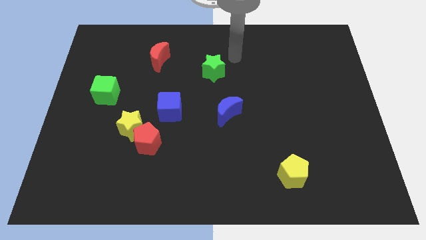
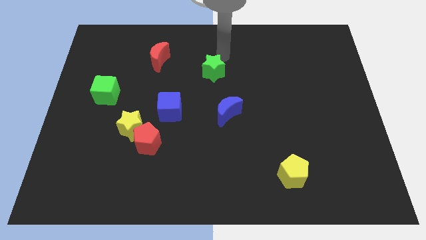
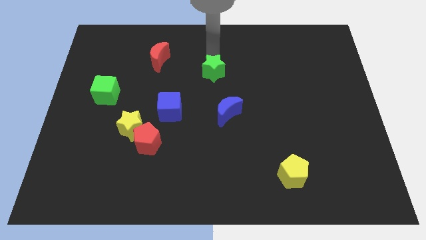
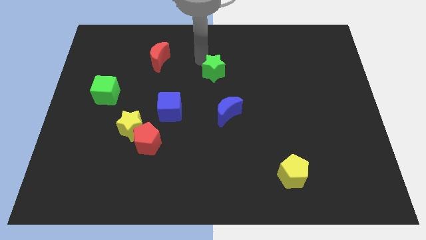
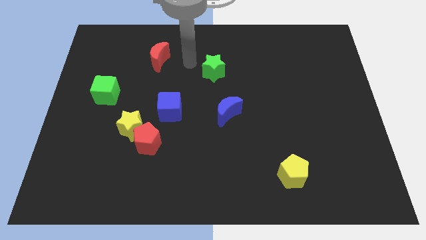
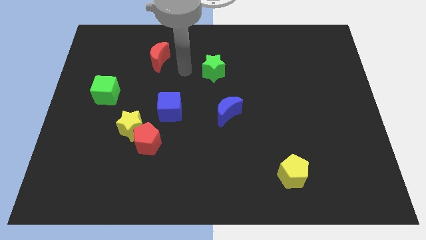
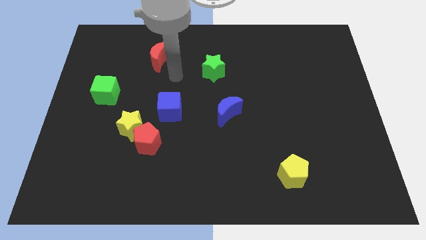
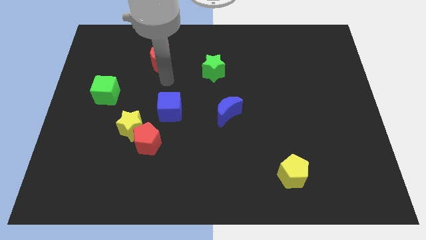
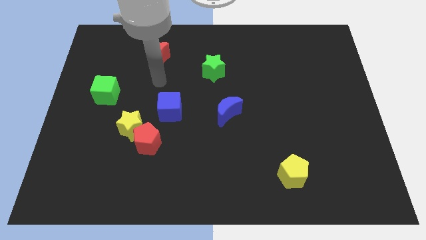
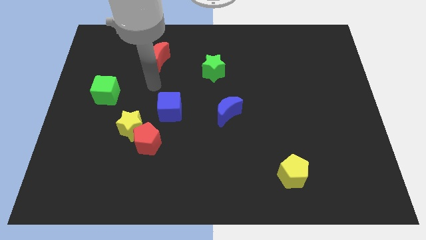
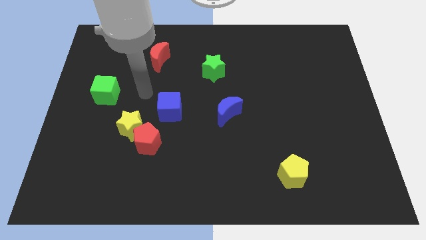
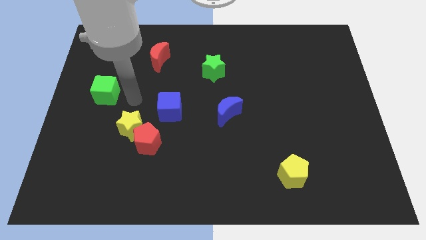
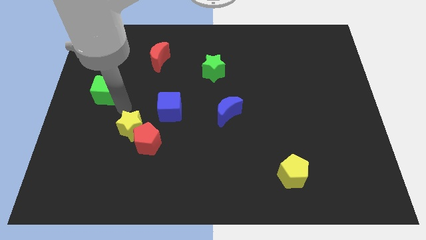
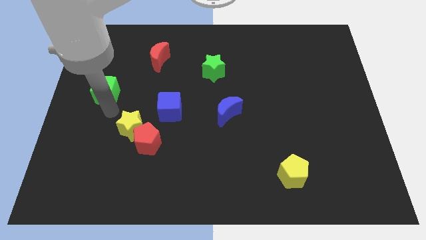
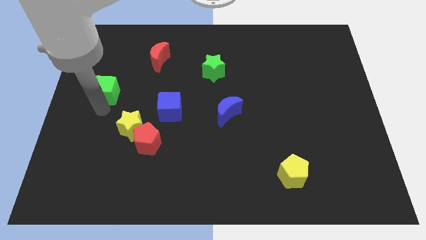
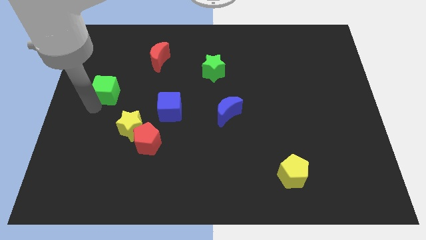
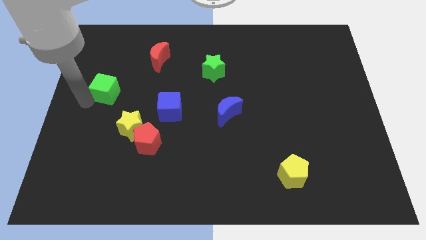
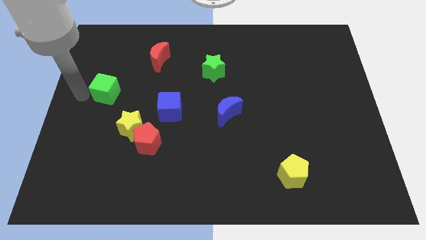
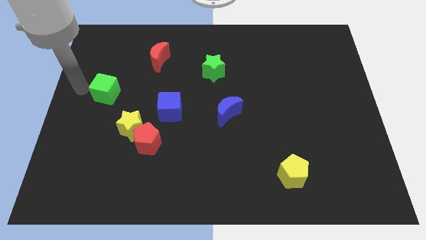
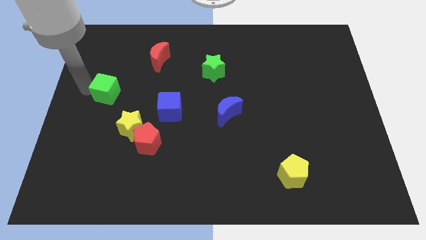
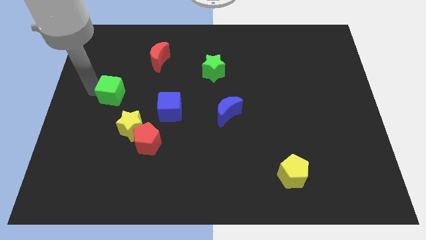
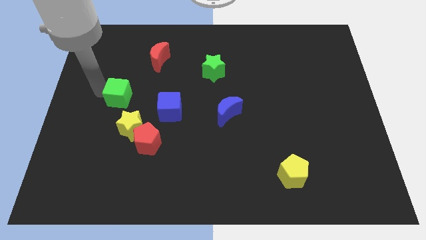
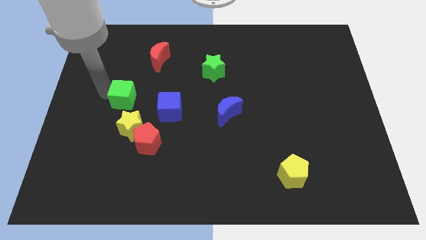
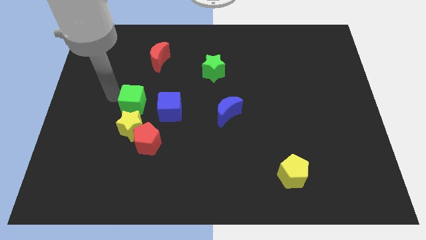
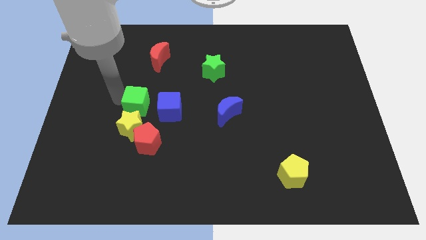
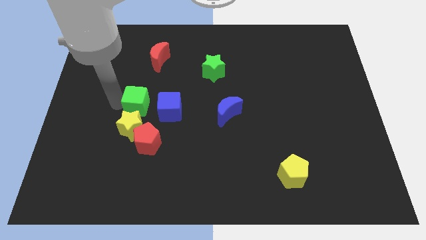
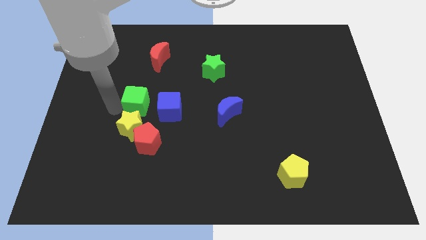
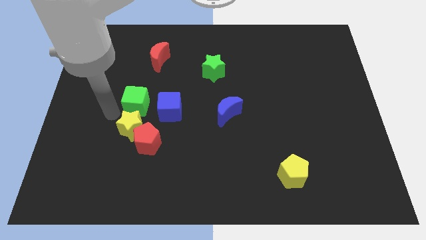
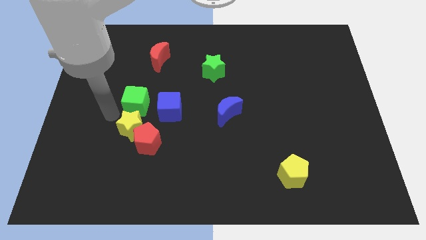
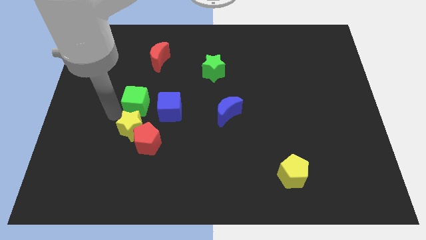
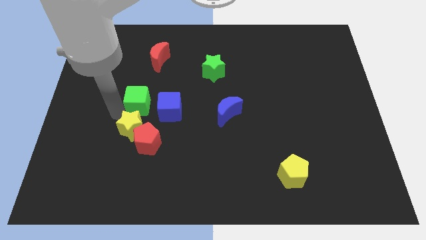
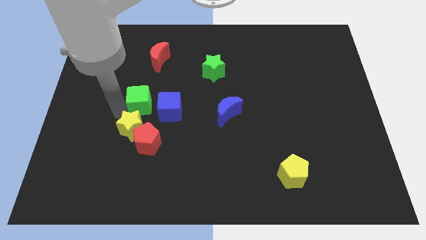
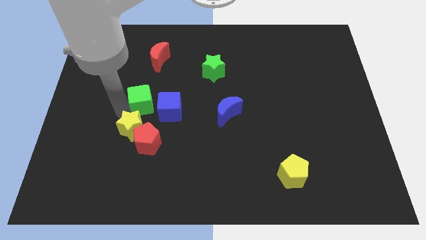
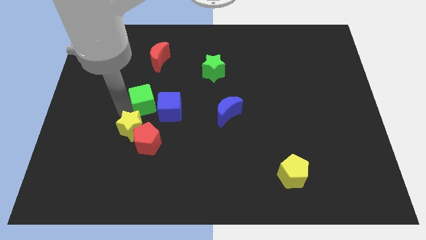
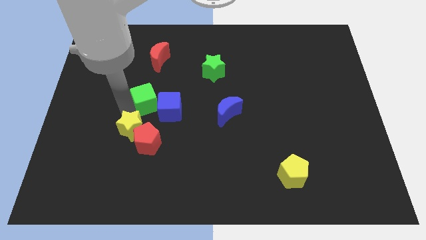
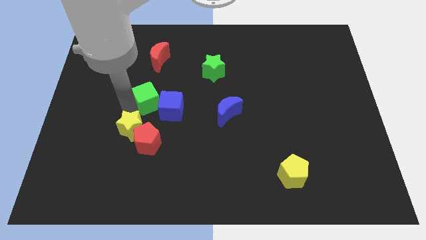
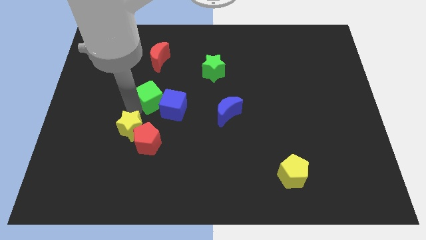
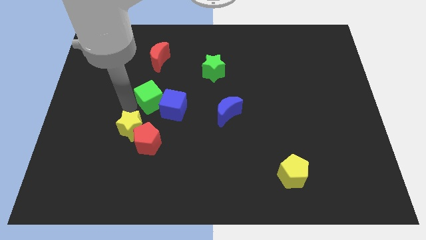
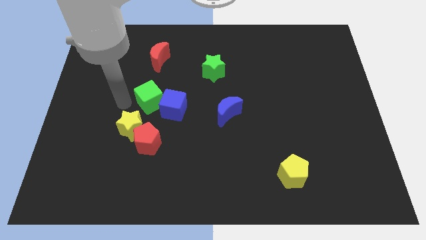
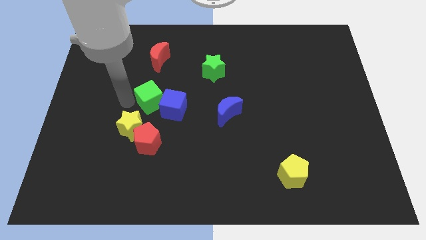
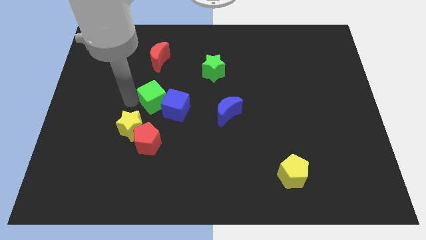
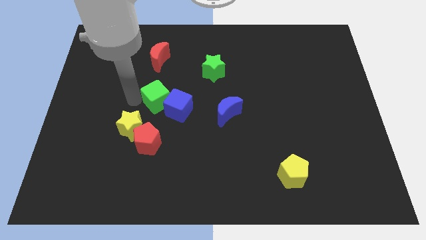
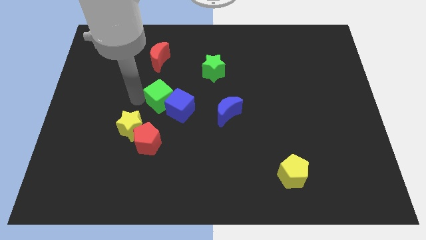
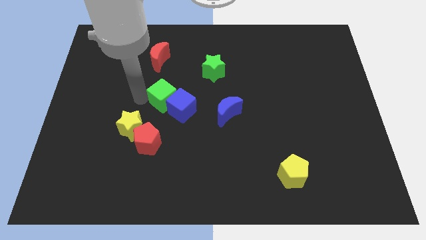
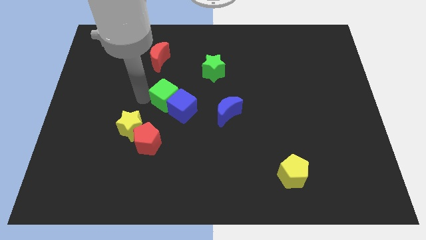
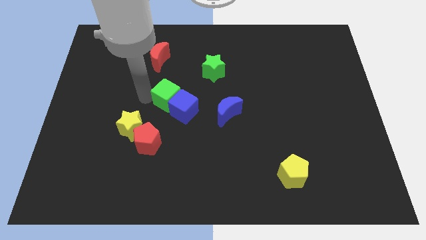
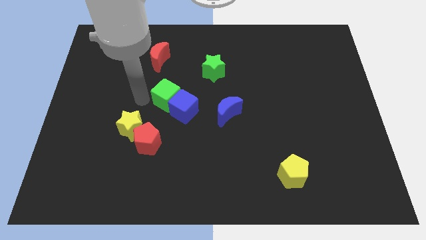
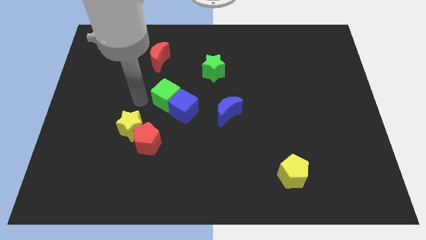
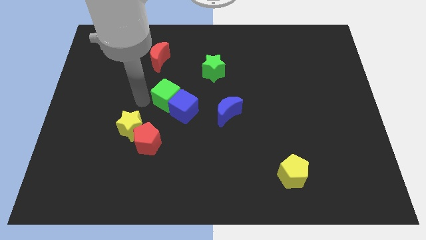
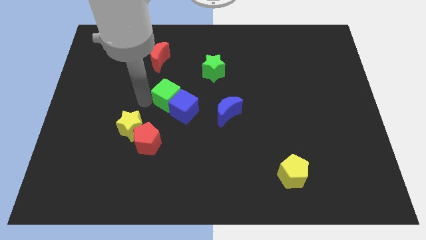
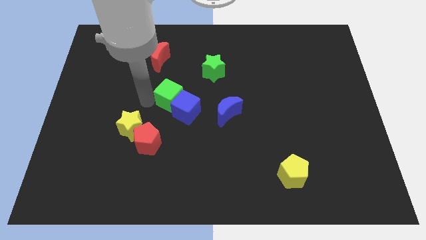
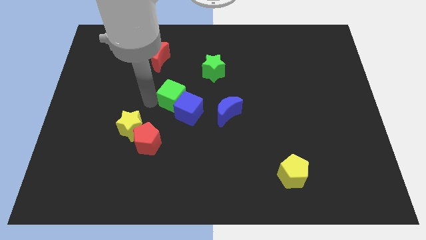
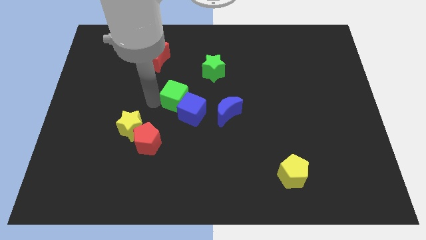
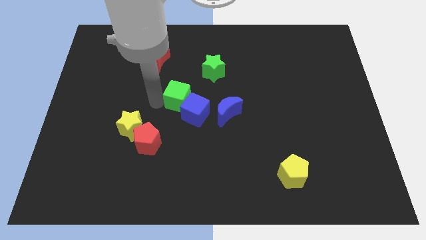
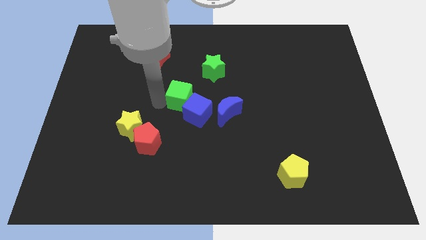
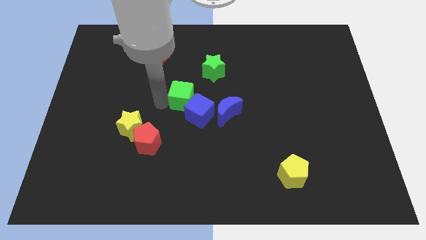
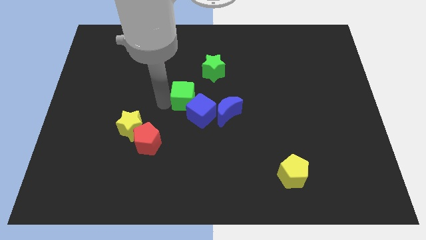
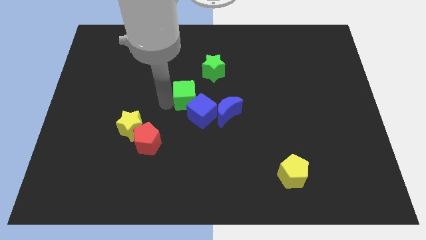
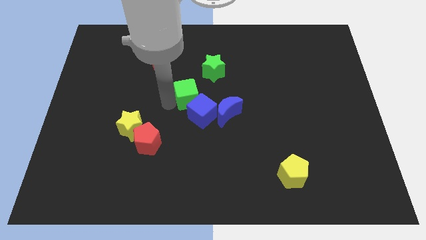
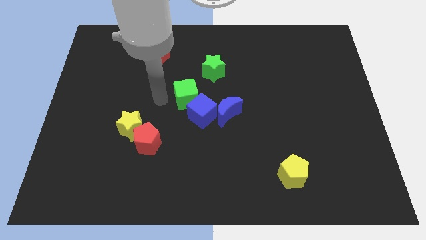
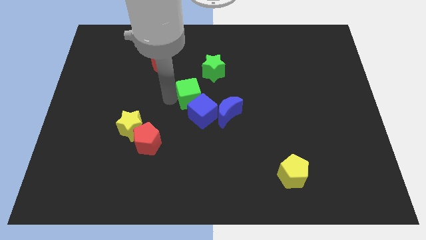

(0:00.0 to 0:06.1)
move the green cube to the right

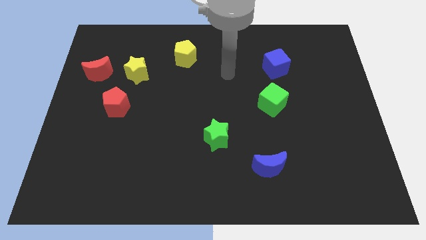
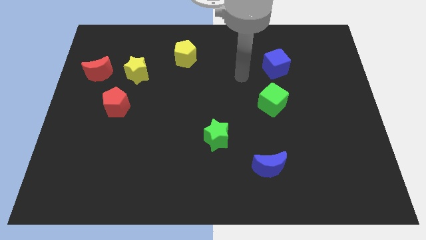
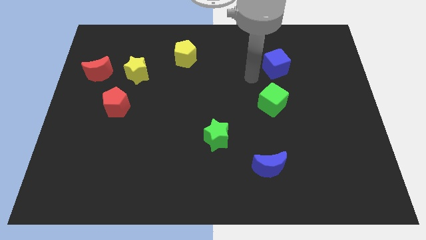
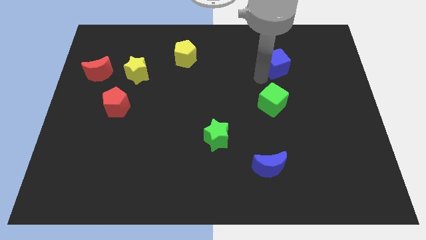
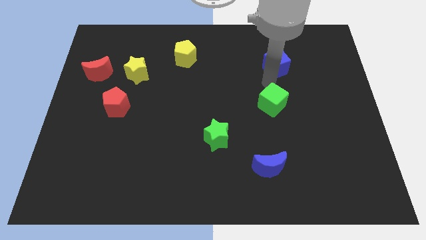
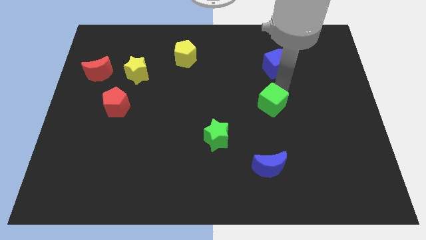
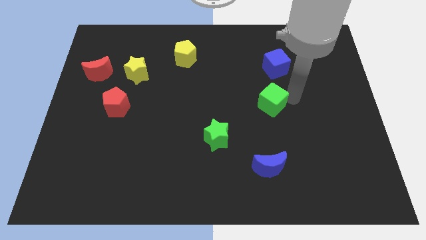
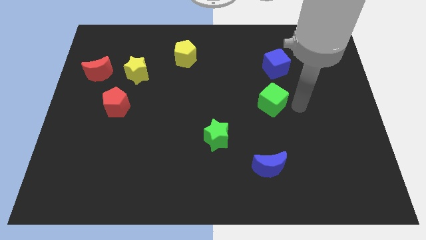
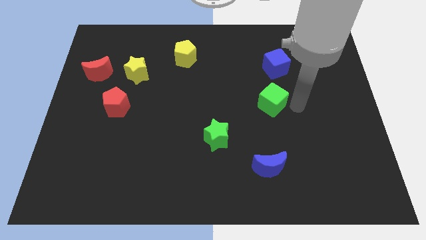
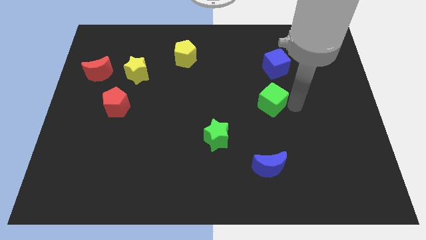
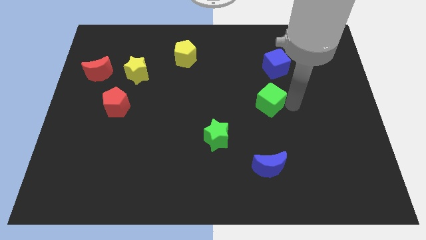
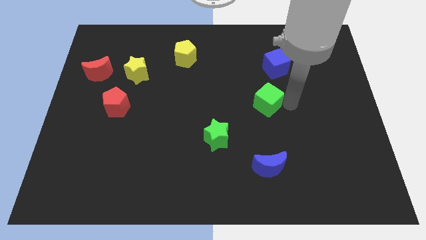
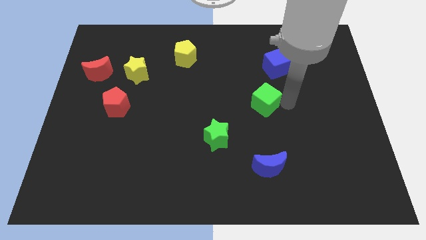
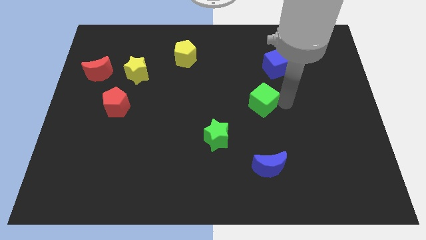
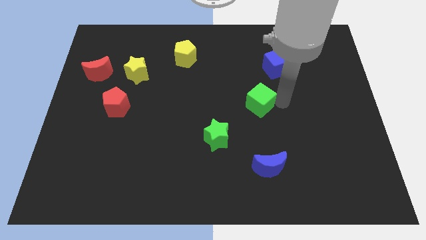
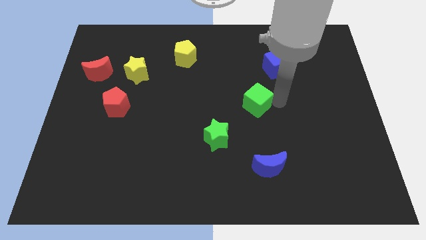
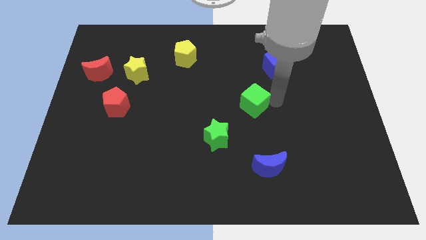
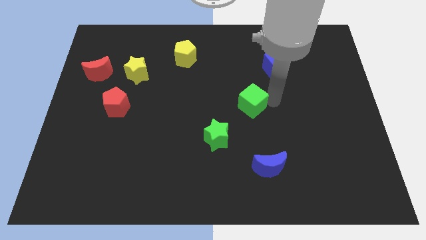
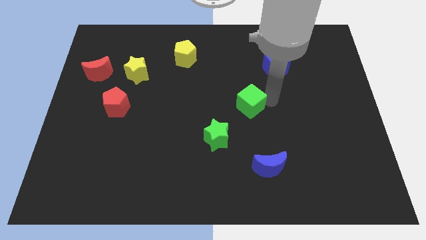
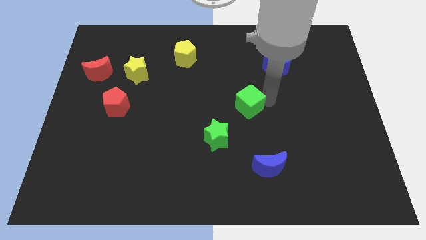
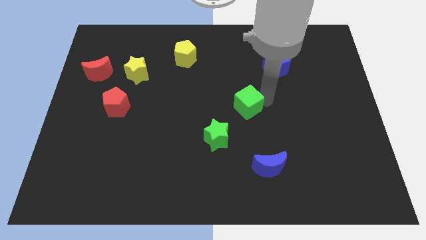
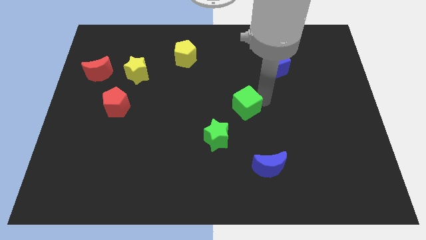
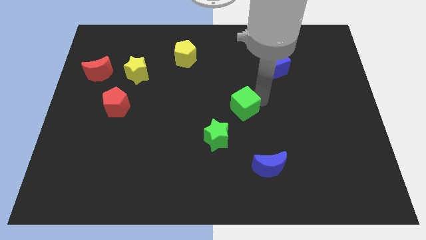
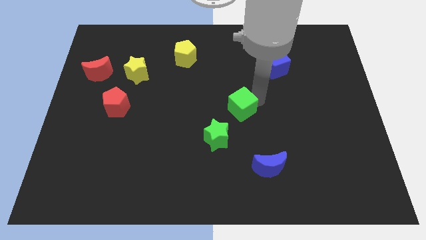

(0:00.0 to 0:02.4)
slightly slide the green cube left
